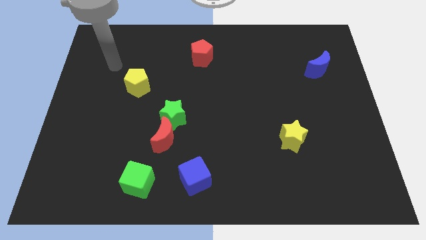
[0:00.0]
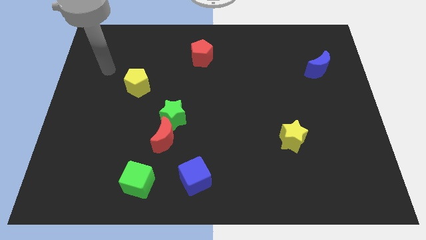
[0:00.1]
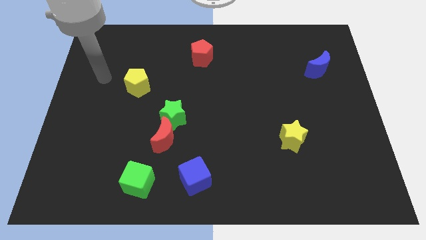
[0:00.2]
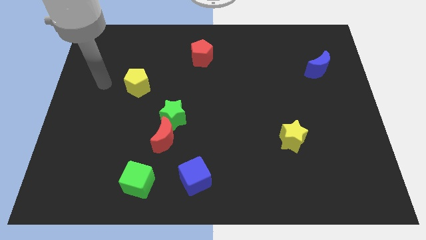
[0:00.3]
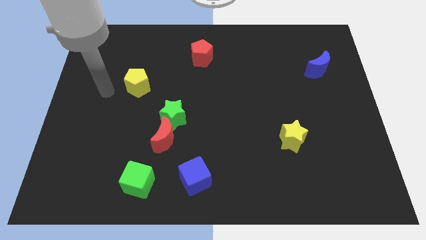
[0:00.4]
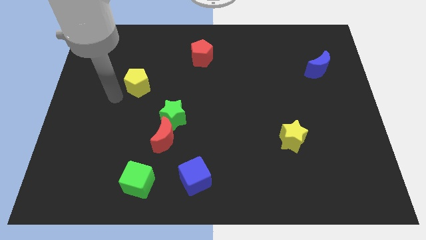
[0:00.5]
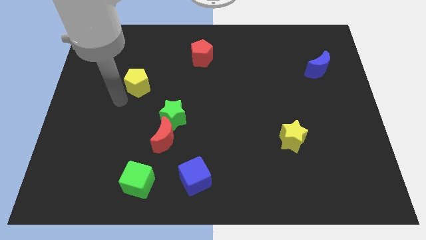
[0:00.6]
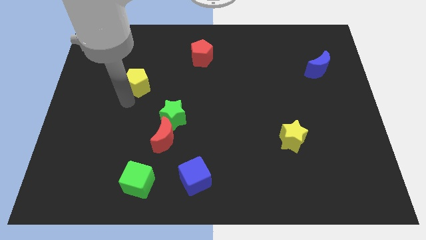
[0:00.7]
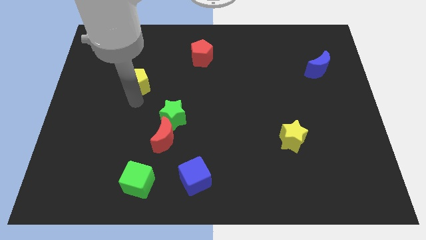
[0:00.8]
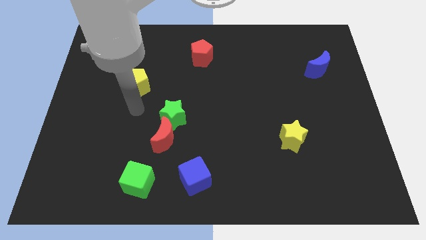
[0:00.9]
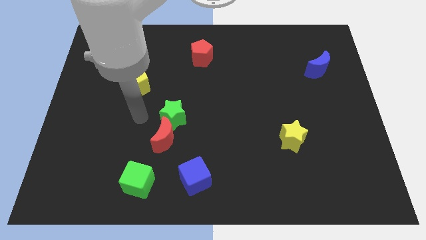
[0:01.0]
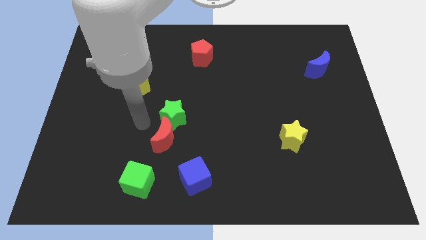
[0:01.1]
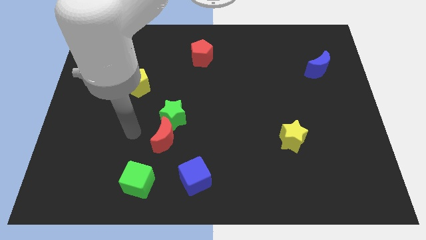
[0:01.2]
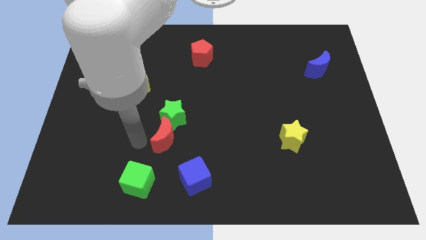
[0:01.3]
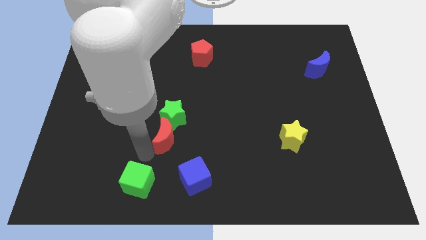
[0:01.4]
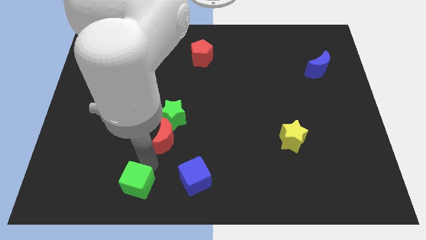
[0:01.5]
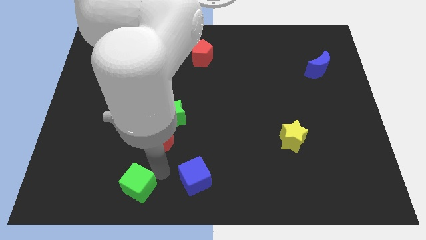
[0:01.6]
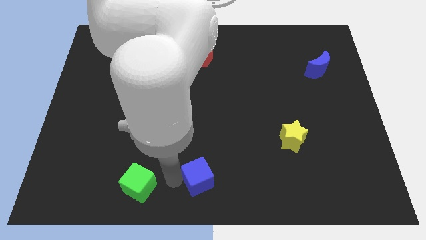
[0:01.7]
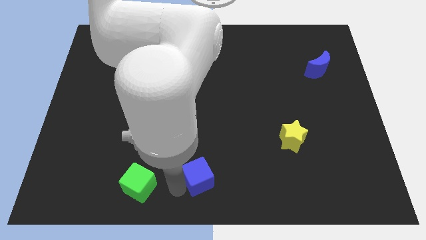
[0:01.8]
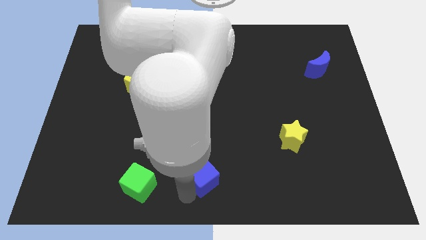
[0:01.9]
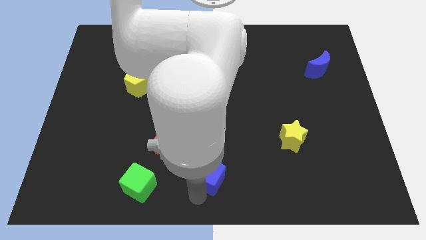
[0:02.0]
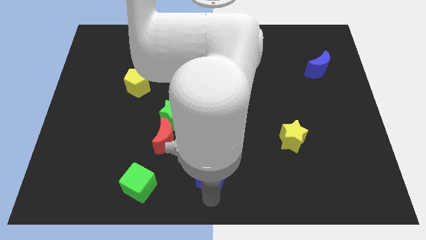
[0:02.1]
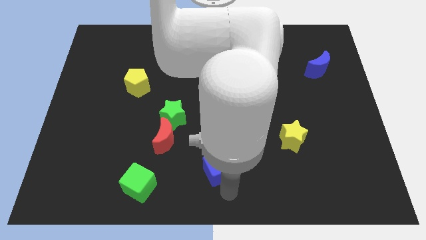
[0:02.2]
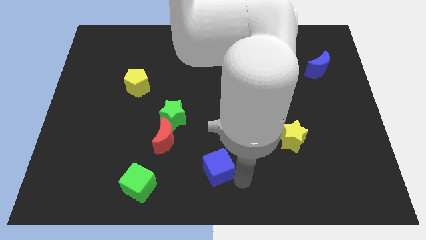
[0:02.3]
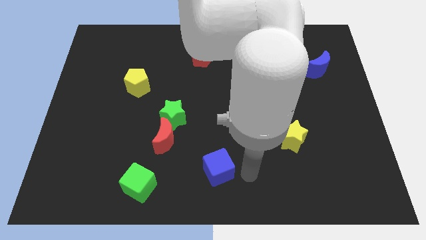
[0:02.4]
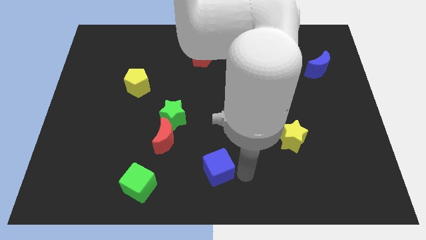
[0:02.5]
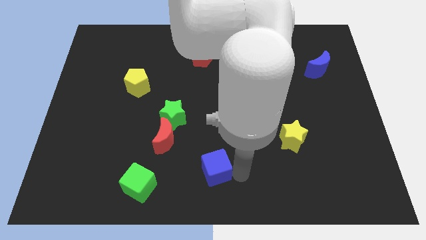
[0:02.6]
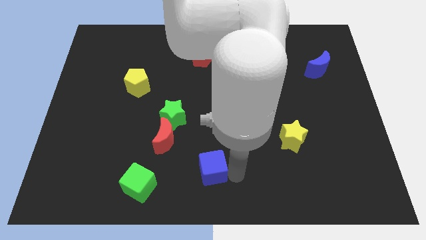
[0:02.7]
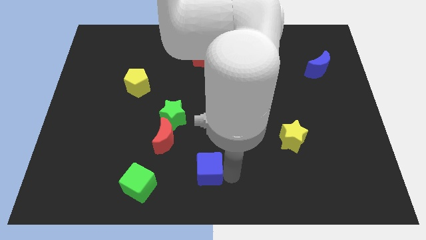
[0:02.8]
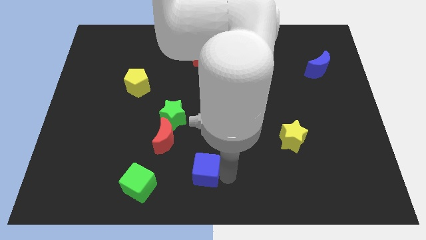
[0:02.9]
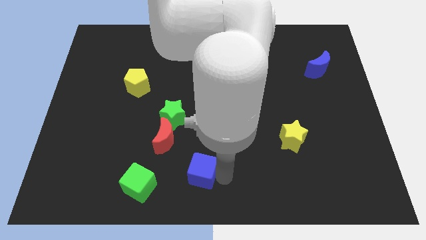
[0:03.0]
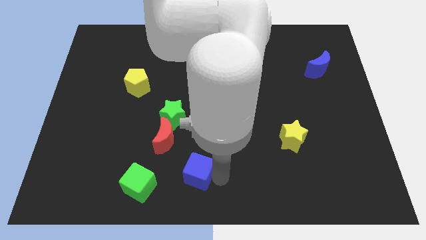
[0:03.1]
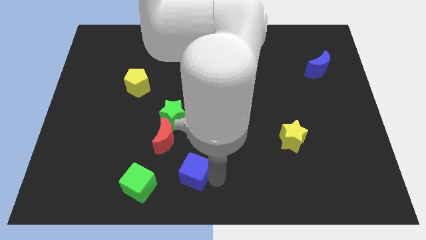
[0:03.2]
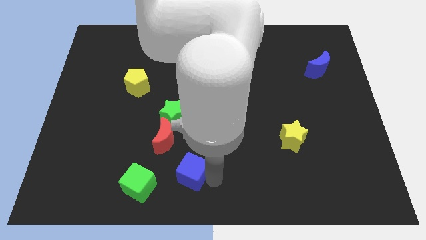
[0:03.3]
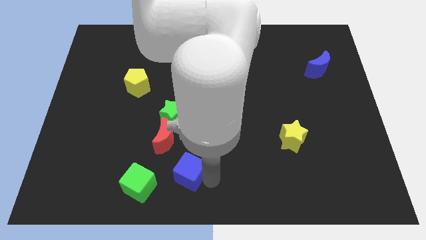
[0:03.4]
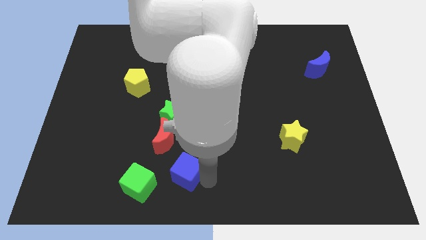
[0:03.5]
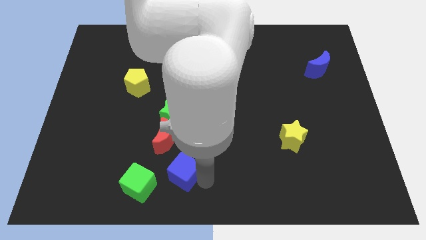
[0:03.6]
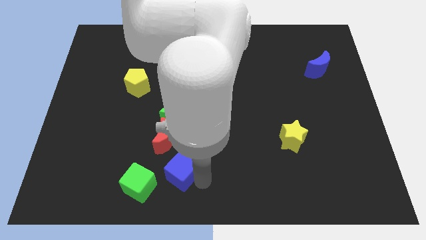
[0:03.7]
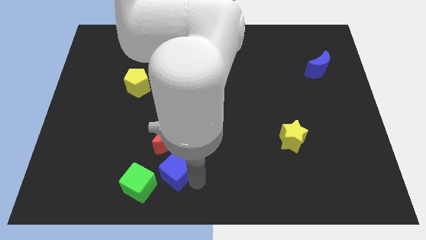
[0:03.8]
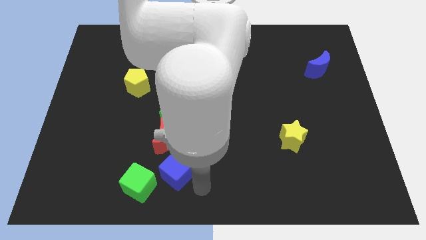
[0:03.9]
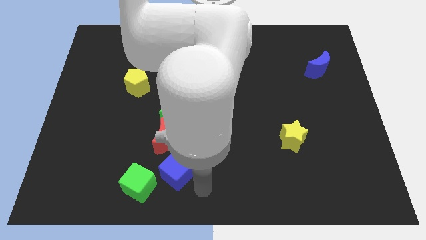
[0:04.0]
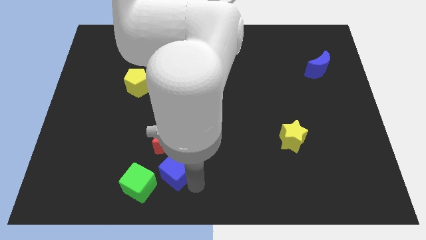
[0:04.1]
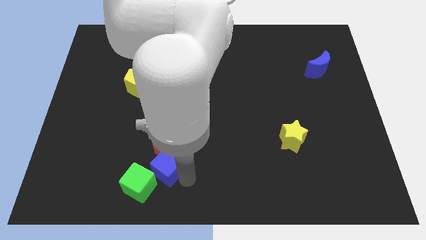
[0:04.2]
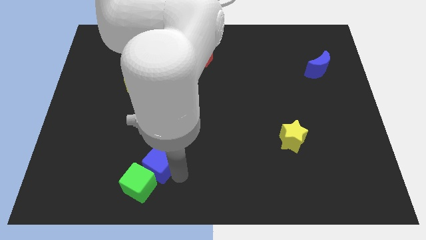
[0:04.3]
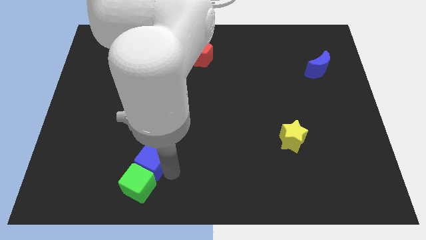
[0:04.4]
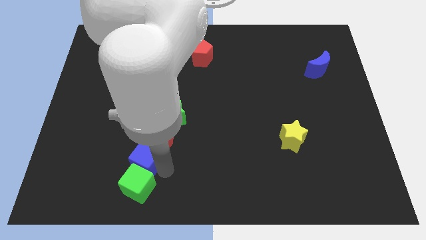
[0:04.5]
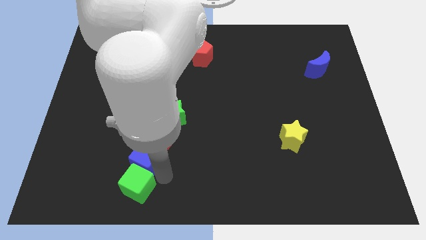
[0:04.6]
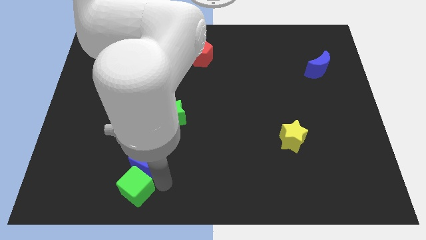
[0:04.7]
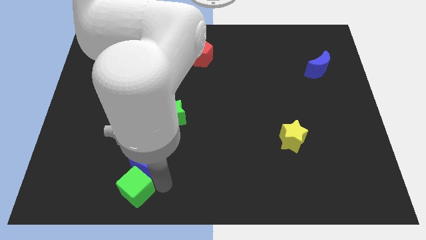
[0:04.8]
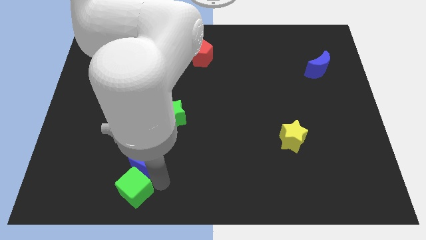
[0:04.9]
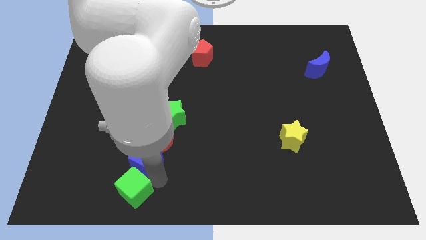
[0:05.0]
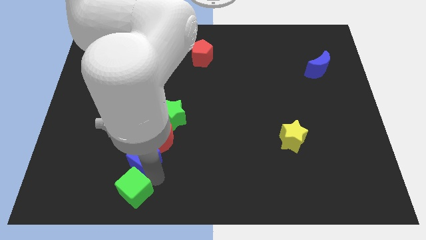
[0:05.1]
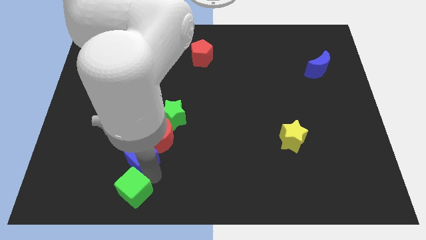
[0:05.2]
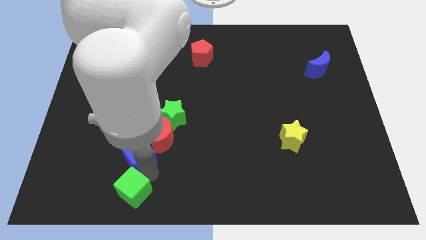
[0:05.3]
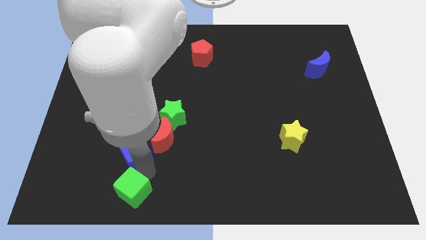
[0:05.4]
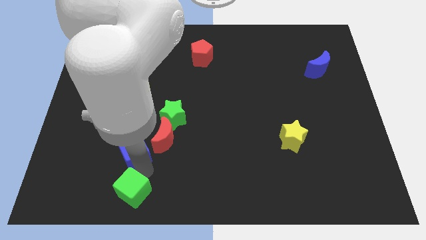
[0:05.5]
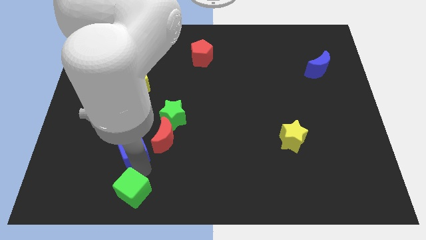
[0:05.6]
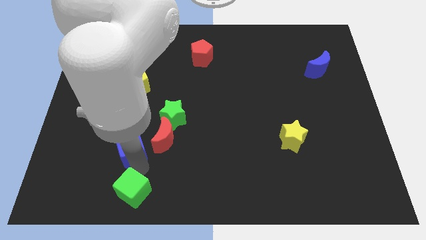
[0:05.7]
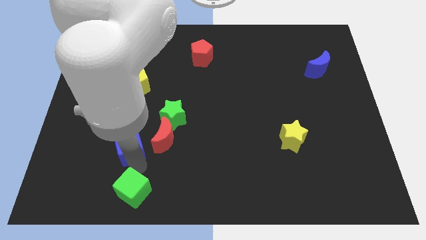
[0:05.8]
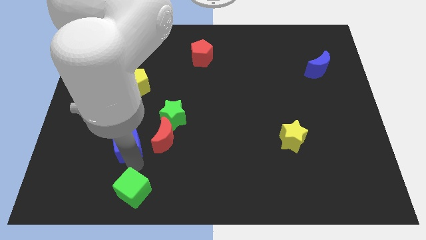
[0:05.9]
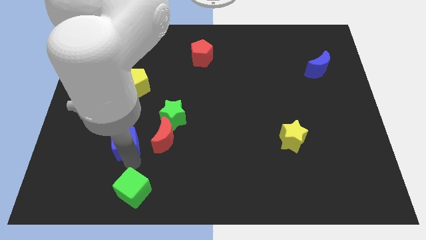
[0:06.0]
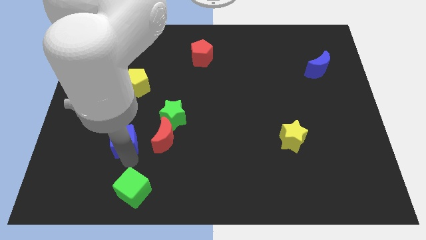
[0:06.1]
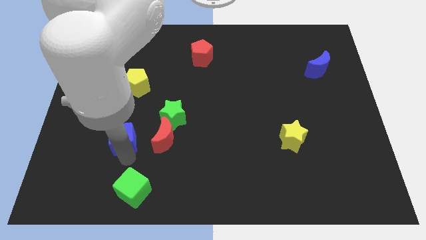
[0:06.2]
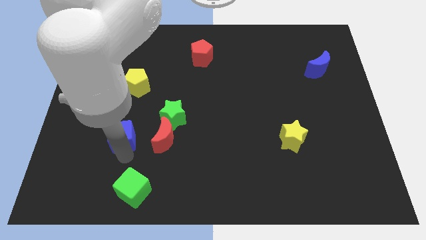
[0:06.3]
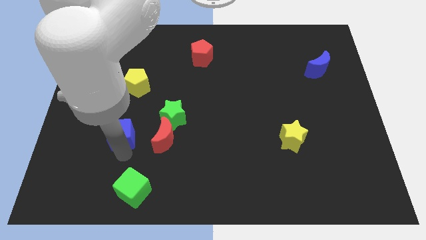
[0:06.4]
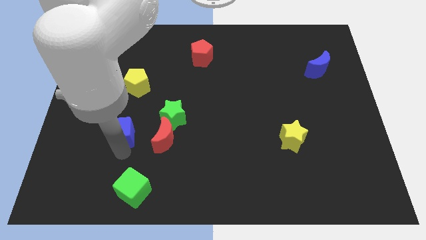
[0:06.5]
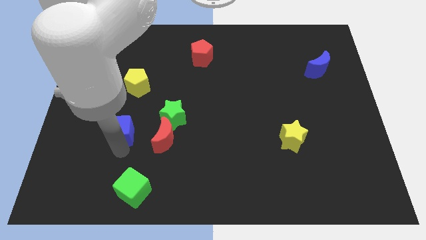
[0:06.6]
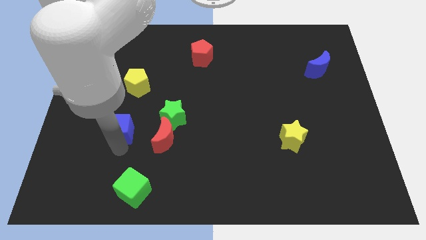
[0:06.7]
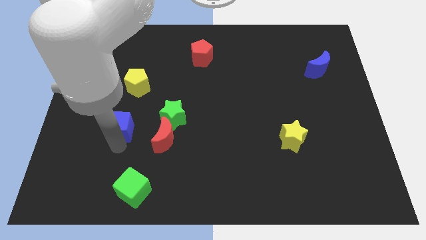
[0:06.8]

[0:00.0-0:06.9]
slide the blue cube up and left diagonally

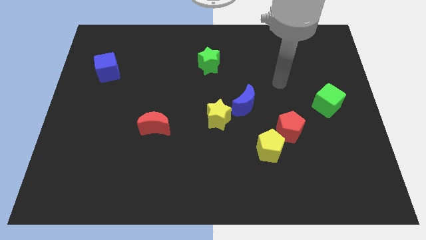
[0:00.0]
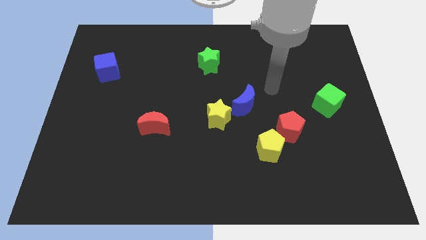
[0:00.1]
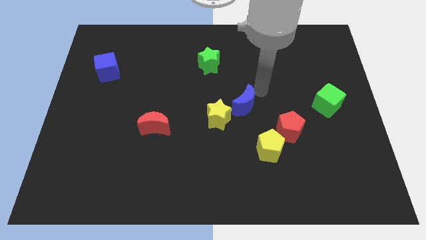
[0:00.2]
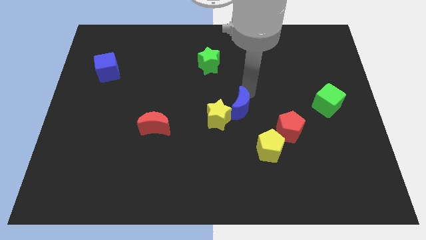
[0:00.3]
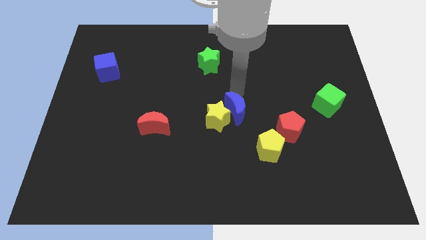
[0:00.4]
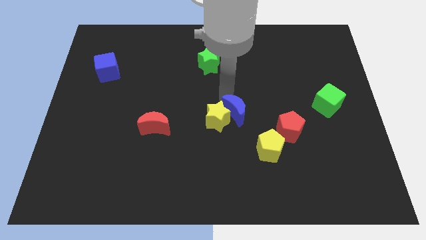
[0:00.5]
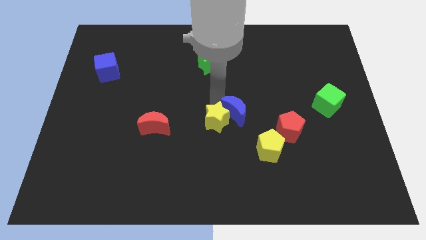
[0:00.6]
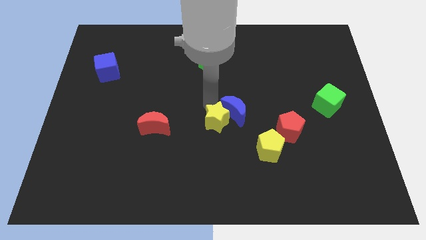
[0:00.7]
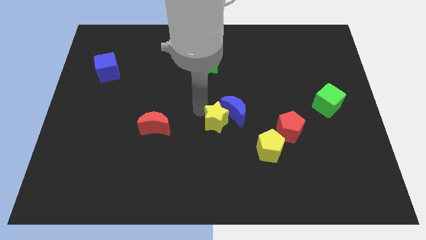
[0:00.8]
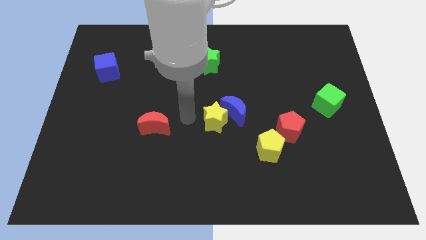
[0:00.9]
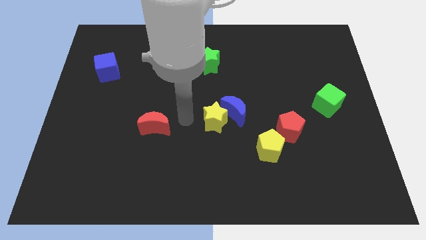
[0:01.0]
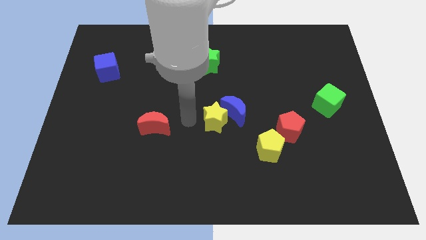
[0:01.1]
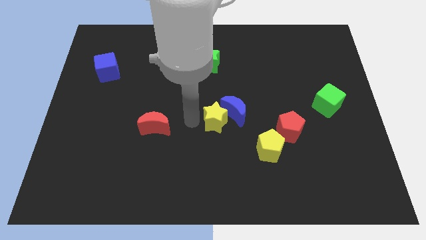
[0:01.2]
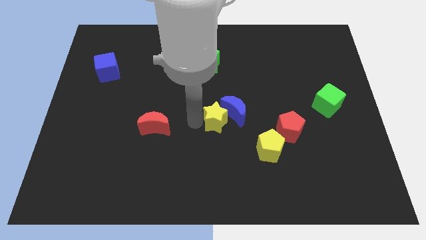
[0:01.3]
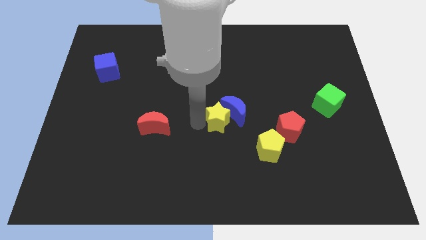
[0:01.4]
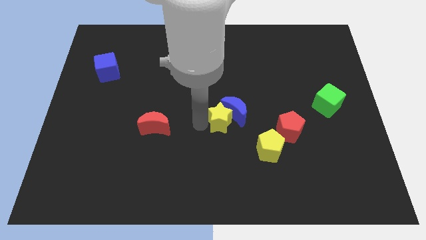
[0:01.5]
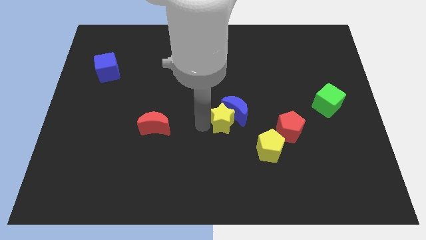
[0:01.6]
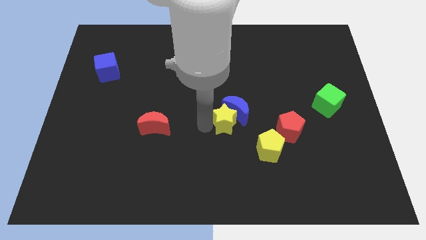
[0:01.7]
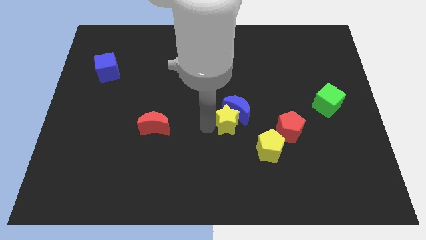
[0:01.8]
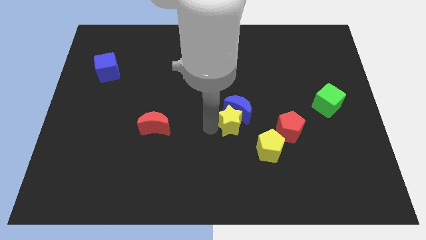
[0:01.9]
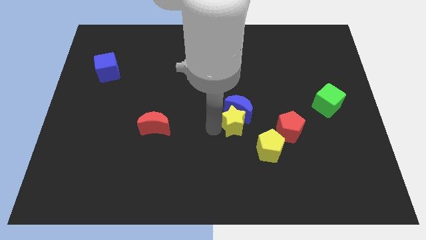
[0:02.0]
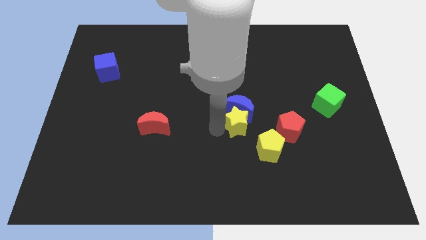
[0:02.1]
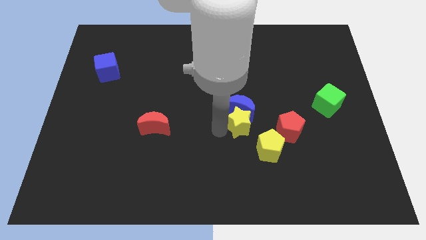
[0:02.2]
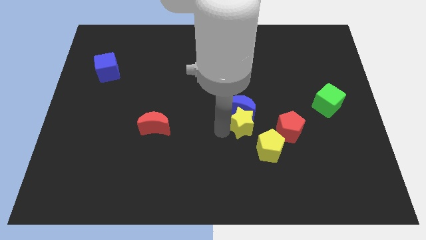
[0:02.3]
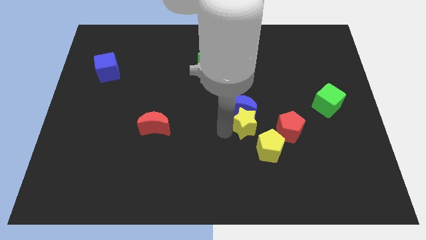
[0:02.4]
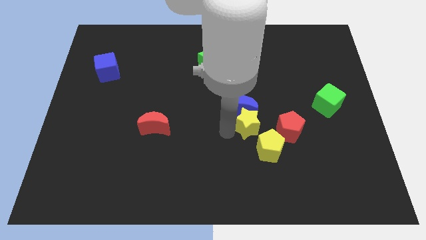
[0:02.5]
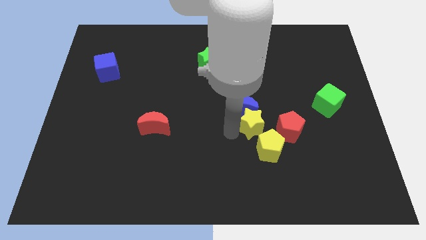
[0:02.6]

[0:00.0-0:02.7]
slide the yellow star right a little bit
